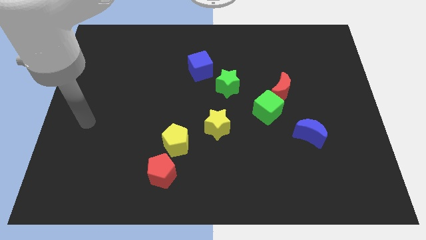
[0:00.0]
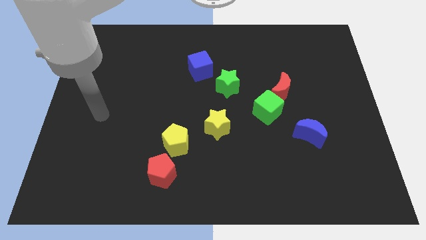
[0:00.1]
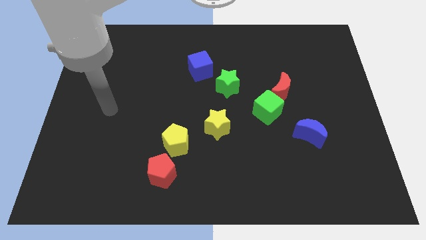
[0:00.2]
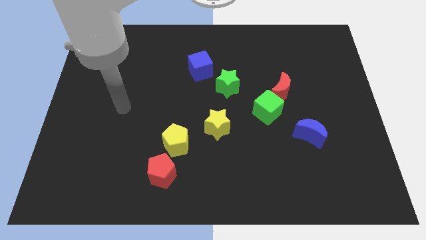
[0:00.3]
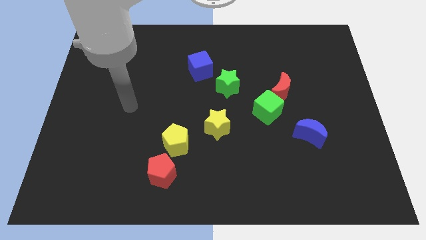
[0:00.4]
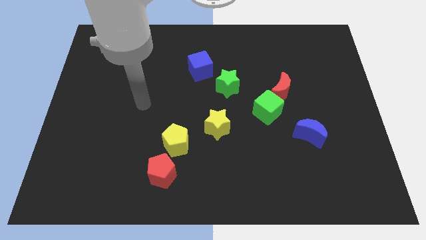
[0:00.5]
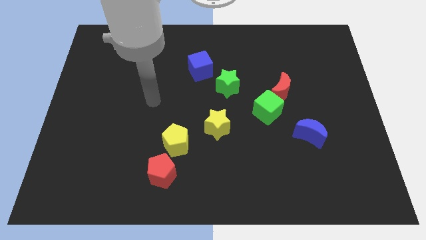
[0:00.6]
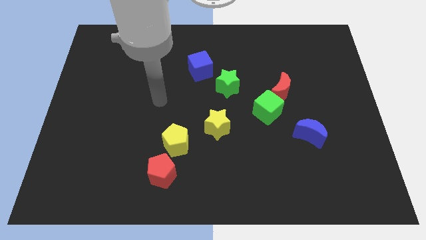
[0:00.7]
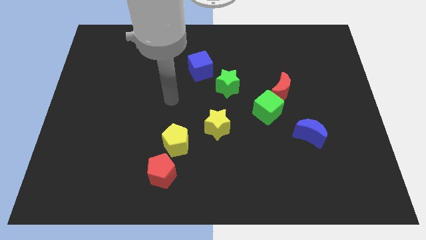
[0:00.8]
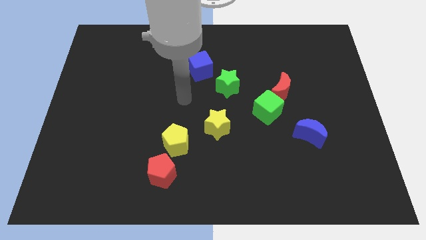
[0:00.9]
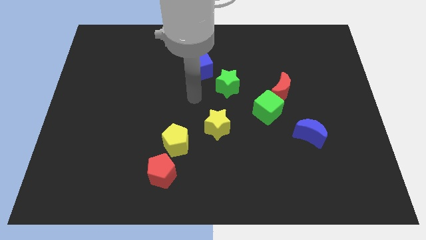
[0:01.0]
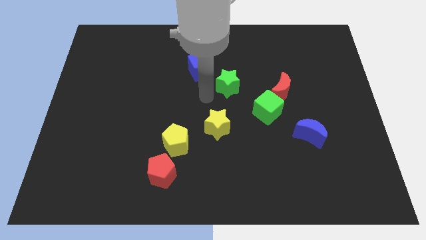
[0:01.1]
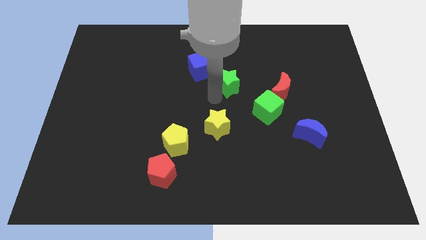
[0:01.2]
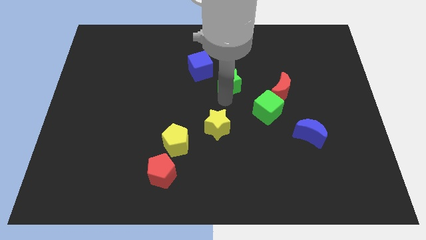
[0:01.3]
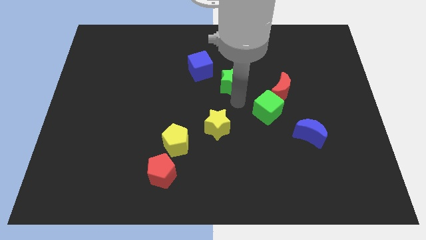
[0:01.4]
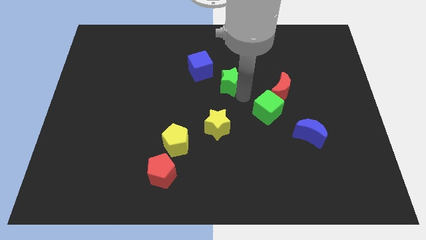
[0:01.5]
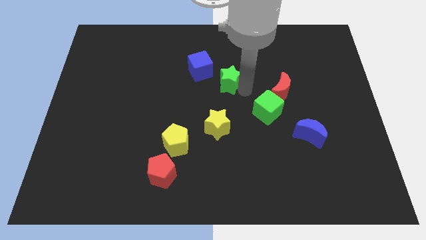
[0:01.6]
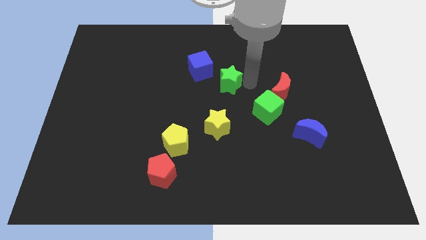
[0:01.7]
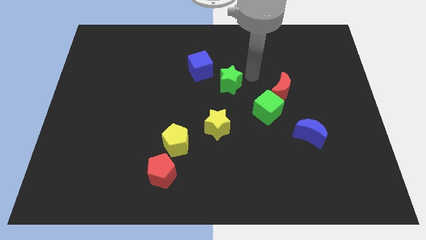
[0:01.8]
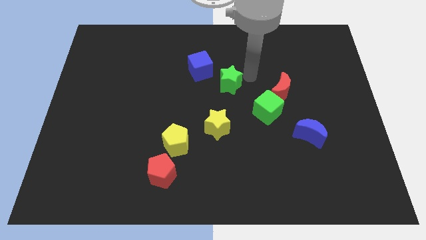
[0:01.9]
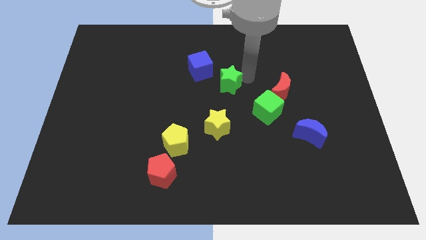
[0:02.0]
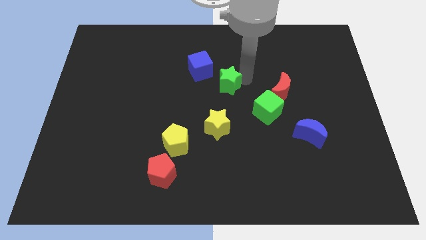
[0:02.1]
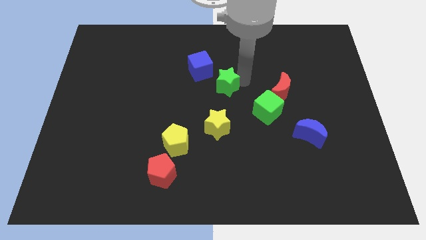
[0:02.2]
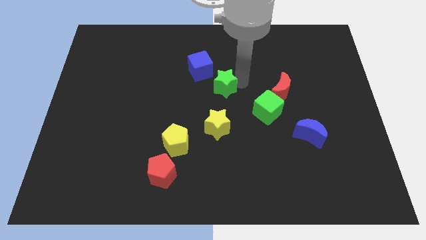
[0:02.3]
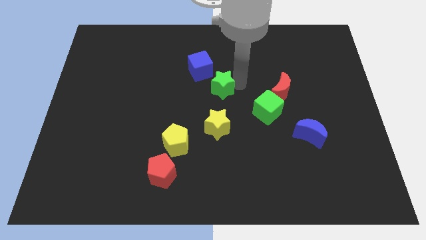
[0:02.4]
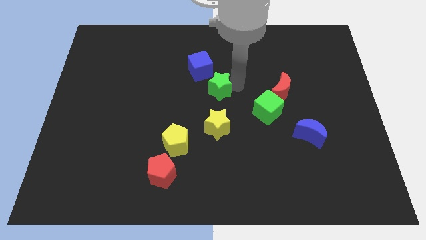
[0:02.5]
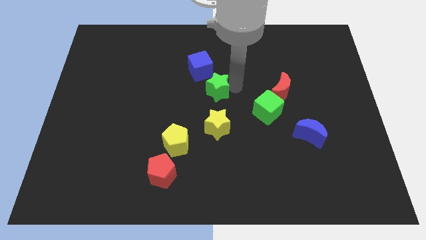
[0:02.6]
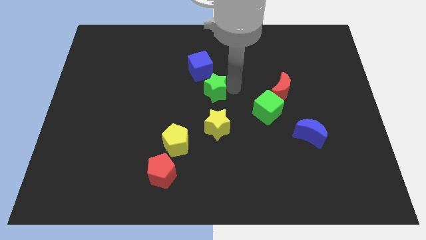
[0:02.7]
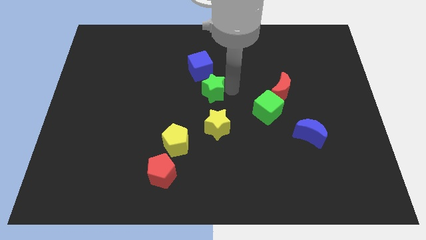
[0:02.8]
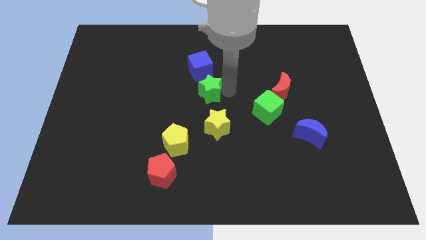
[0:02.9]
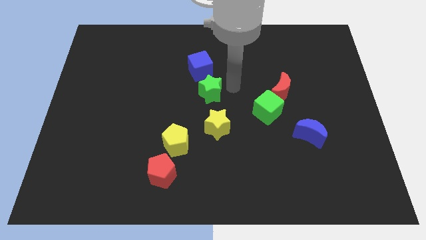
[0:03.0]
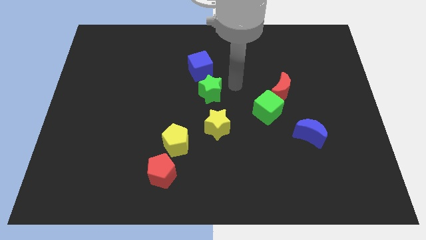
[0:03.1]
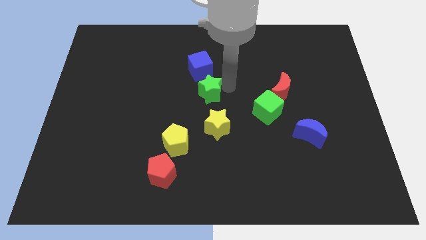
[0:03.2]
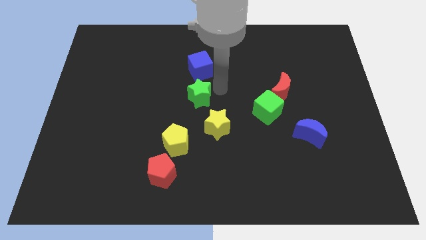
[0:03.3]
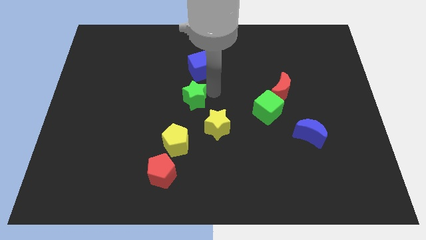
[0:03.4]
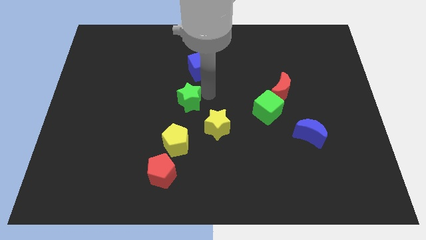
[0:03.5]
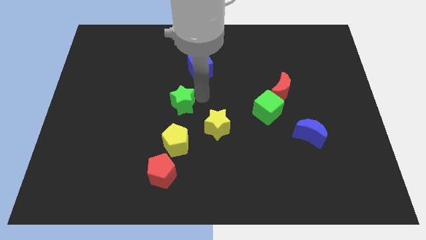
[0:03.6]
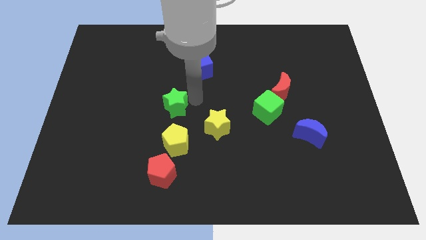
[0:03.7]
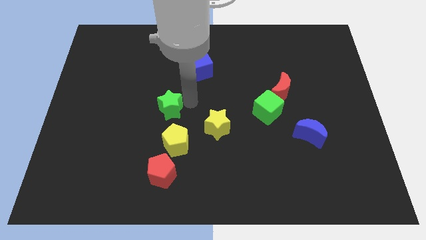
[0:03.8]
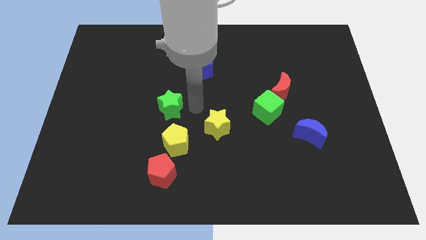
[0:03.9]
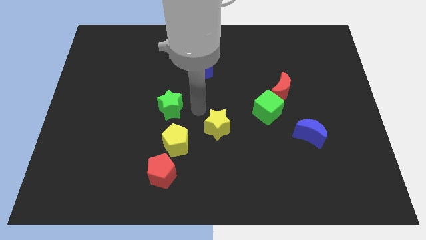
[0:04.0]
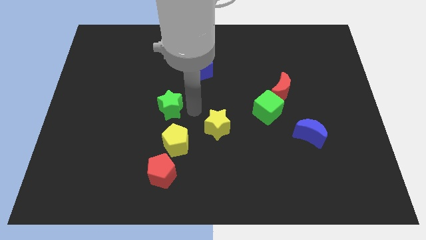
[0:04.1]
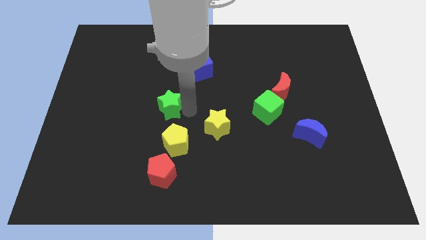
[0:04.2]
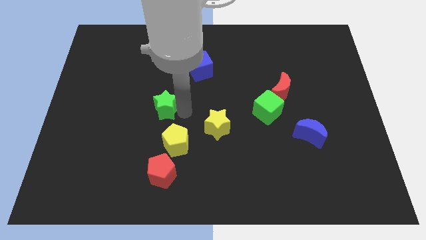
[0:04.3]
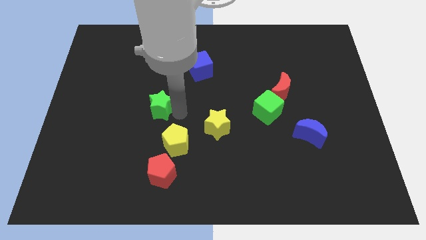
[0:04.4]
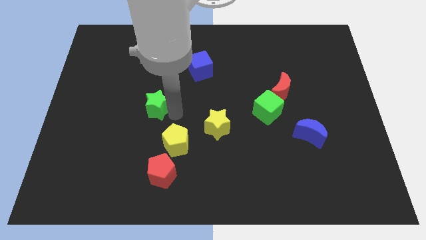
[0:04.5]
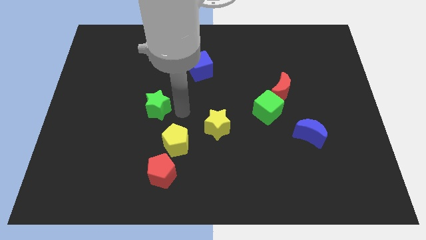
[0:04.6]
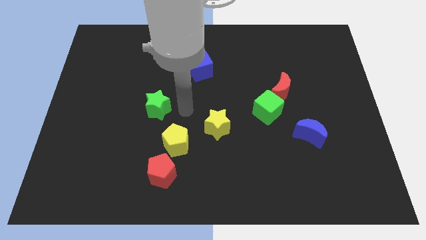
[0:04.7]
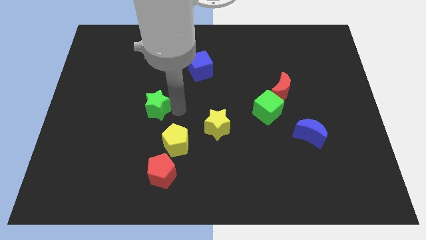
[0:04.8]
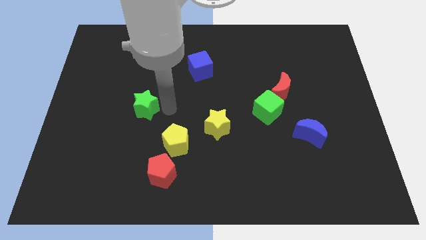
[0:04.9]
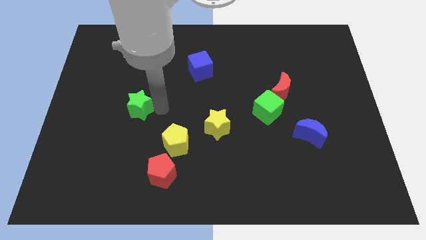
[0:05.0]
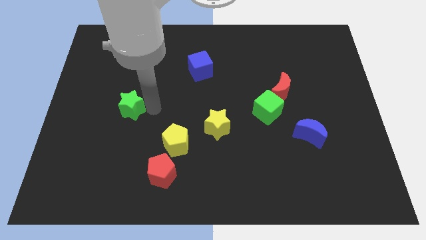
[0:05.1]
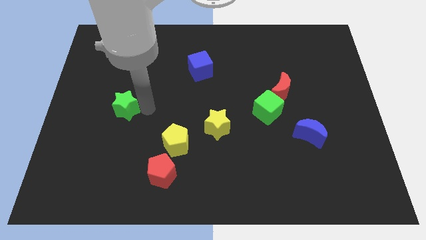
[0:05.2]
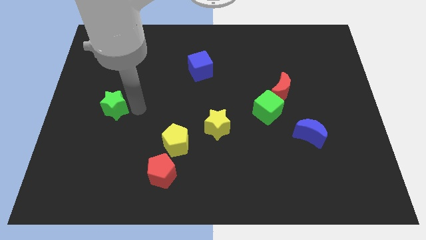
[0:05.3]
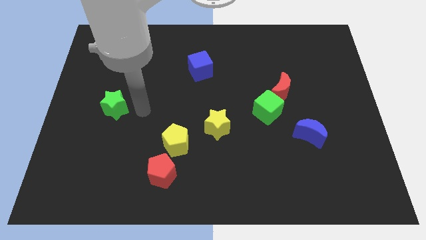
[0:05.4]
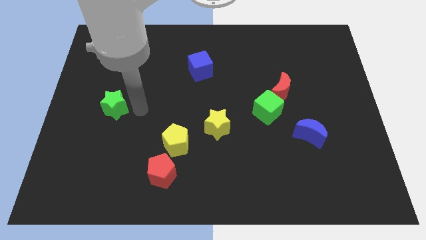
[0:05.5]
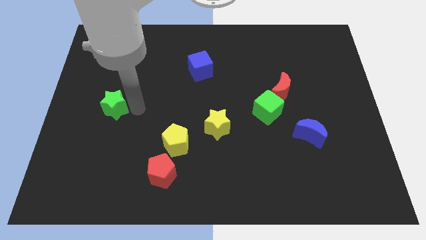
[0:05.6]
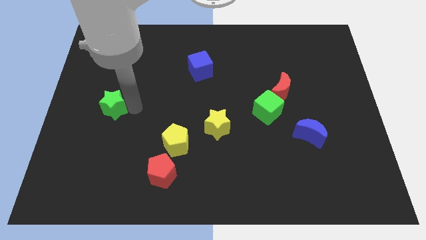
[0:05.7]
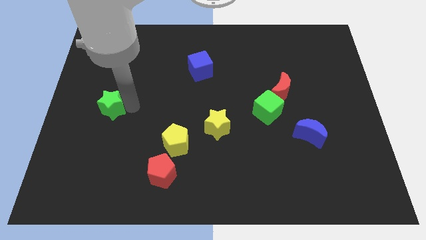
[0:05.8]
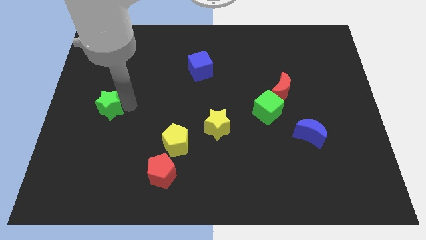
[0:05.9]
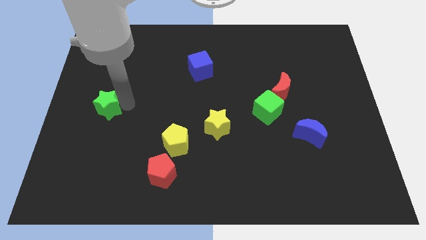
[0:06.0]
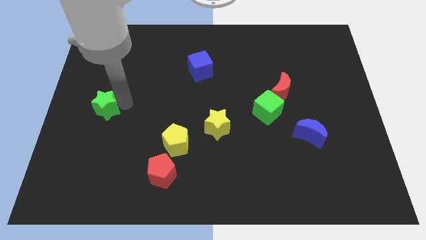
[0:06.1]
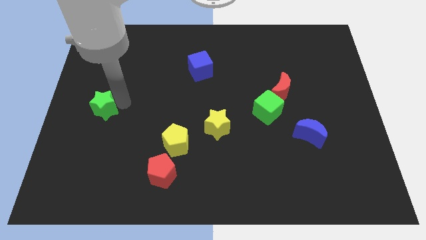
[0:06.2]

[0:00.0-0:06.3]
move the green star to the center left
